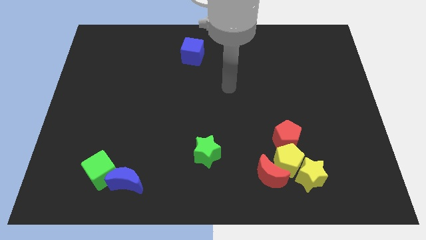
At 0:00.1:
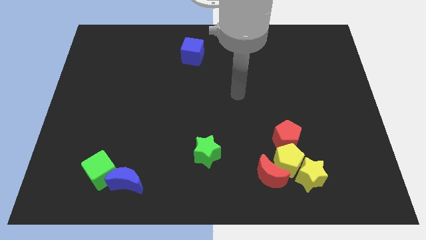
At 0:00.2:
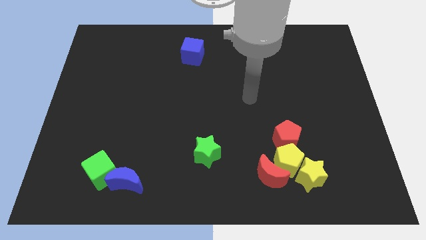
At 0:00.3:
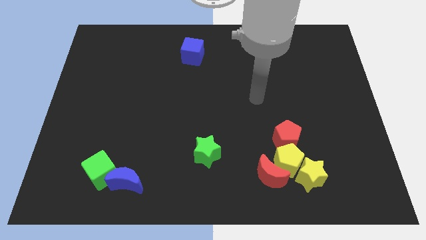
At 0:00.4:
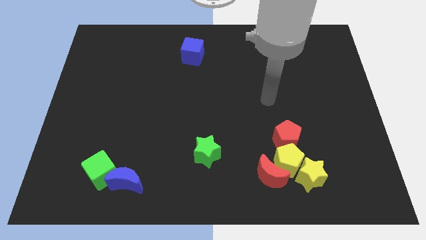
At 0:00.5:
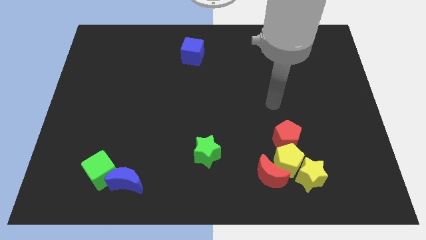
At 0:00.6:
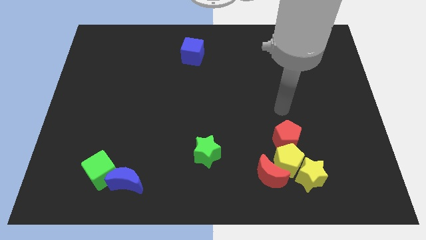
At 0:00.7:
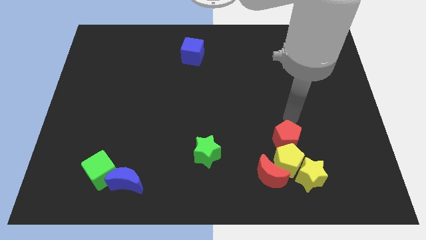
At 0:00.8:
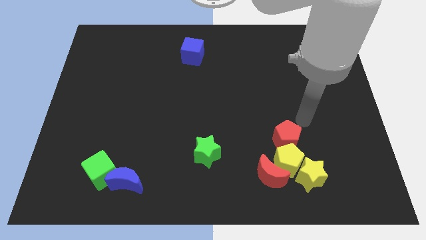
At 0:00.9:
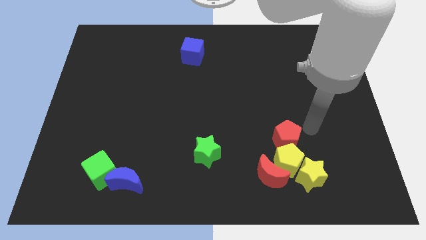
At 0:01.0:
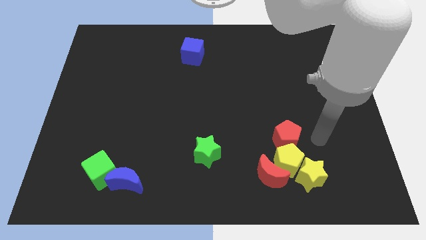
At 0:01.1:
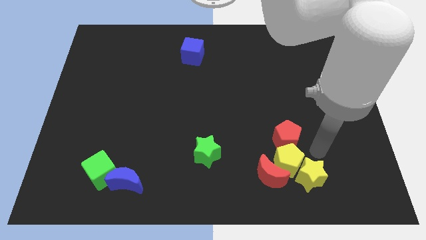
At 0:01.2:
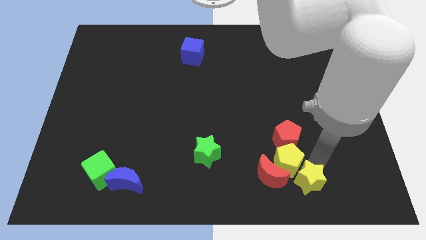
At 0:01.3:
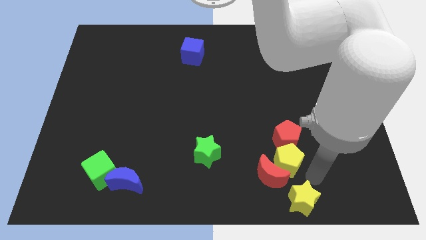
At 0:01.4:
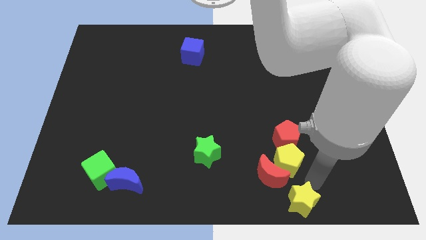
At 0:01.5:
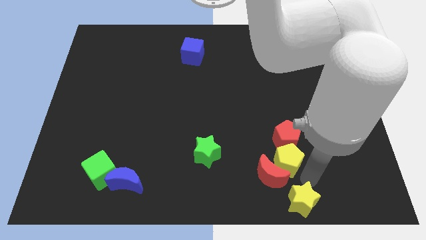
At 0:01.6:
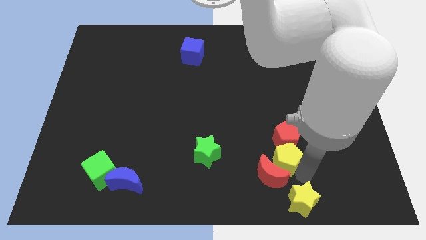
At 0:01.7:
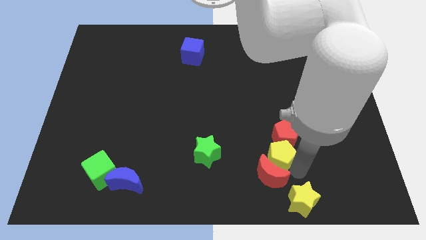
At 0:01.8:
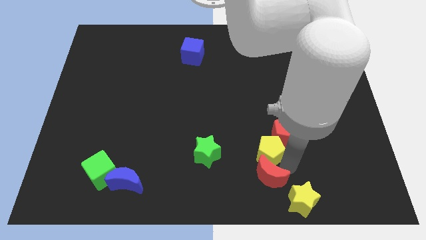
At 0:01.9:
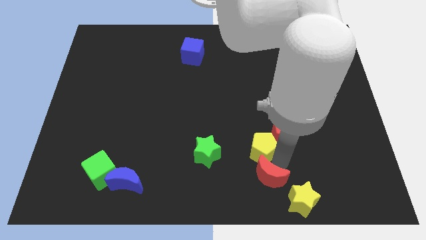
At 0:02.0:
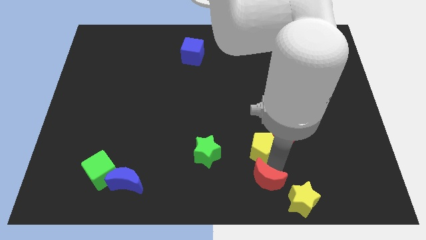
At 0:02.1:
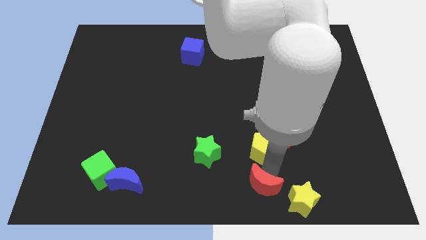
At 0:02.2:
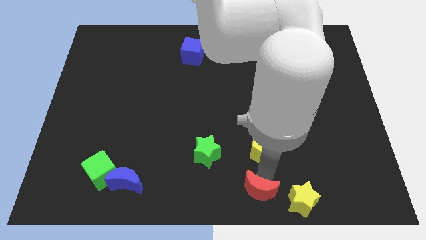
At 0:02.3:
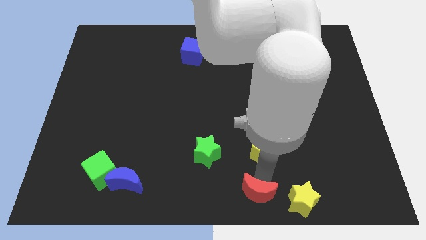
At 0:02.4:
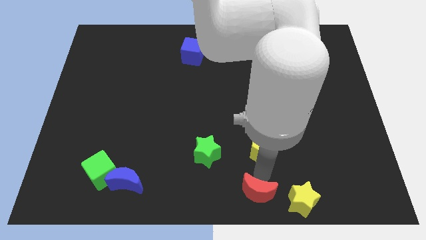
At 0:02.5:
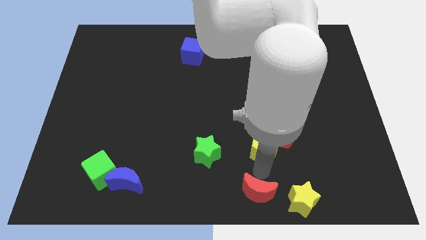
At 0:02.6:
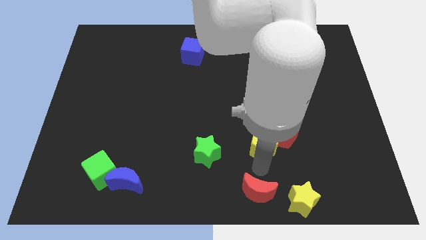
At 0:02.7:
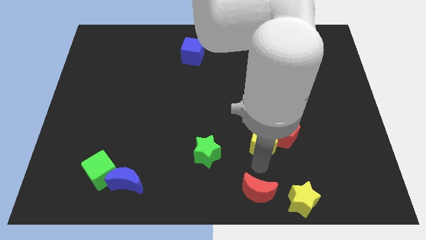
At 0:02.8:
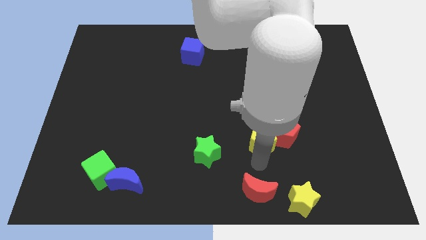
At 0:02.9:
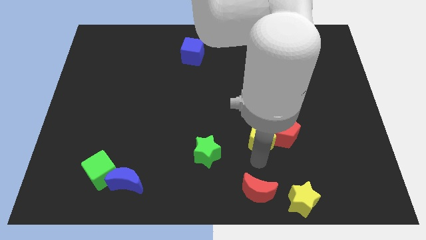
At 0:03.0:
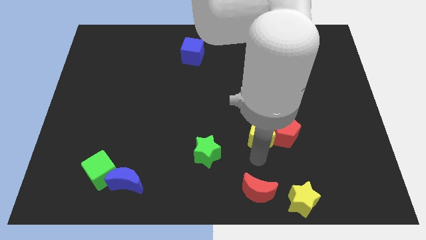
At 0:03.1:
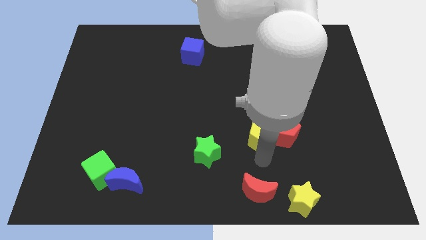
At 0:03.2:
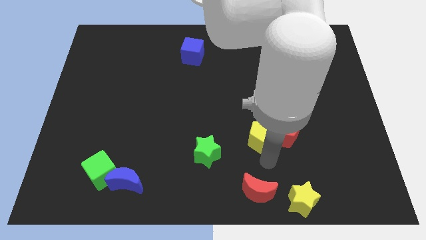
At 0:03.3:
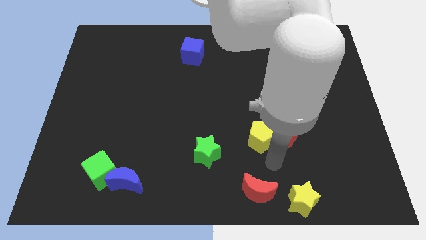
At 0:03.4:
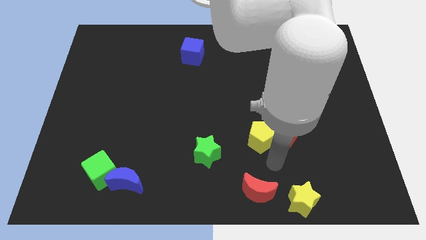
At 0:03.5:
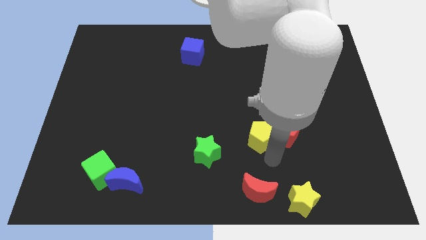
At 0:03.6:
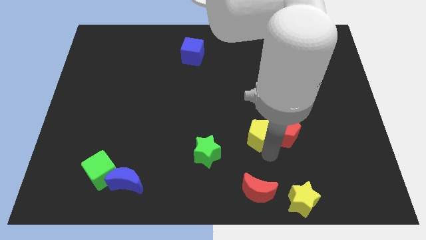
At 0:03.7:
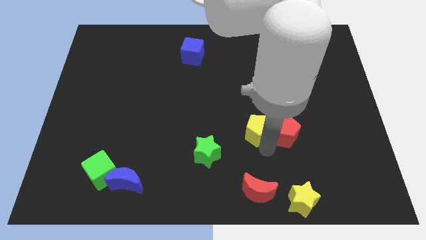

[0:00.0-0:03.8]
pull the yellow pentagon apart from the yellow star, red moon, and red pentagon

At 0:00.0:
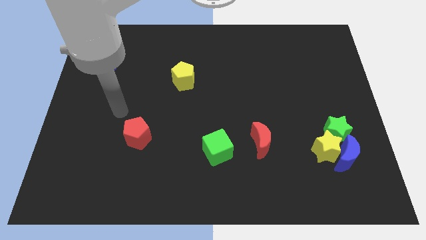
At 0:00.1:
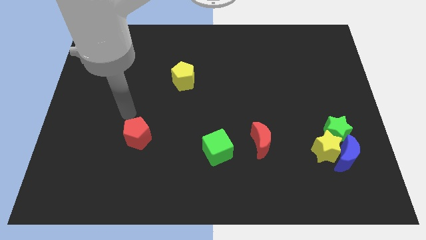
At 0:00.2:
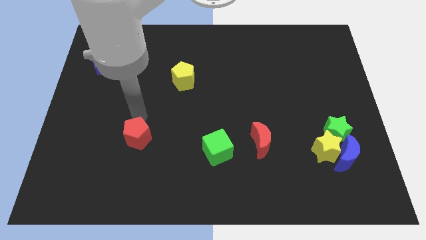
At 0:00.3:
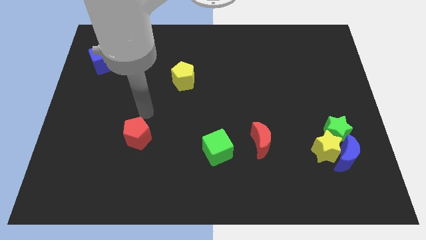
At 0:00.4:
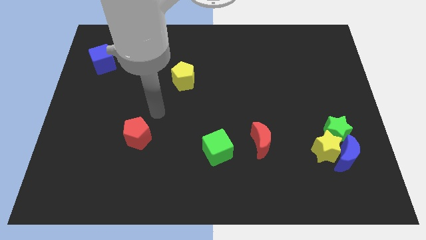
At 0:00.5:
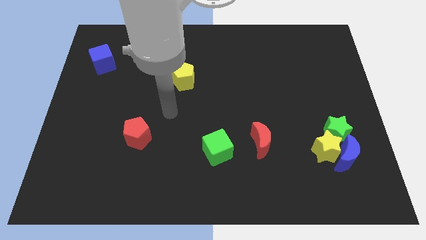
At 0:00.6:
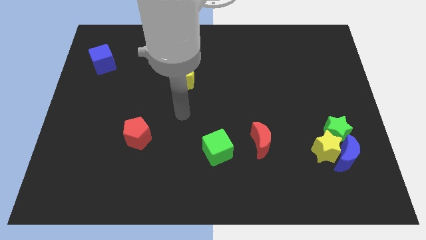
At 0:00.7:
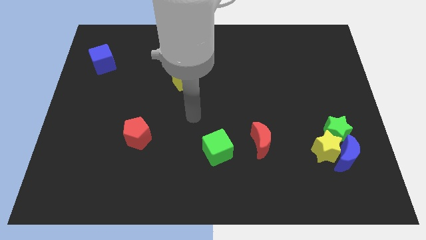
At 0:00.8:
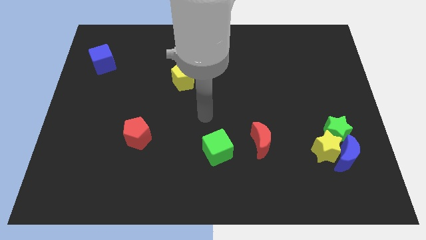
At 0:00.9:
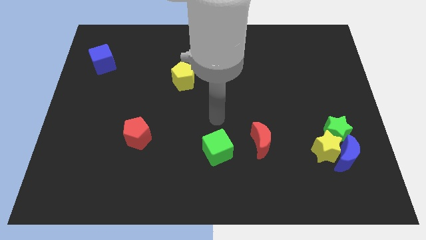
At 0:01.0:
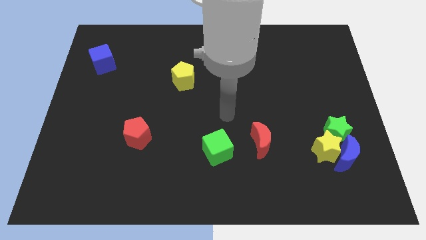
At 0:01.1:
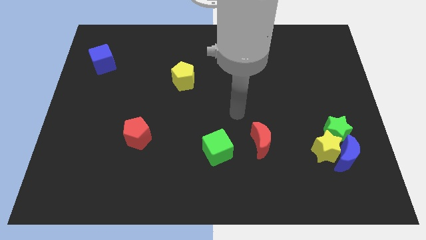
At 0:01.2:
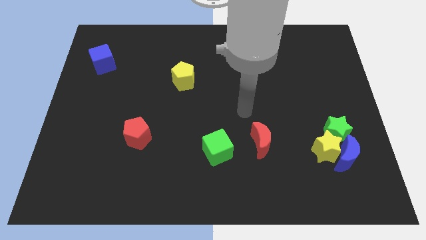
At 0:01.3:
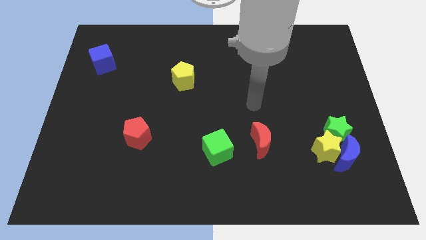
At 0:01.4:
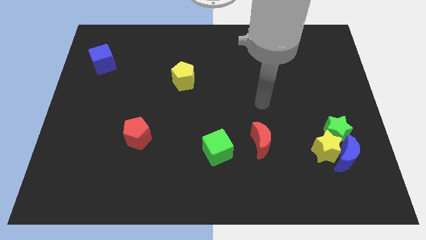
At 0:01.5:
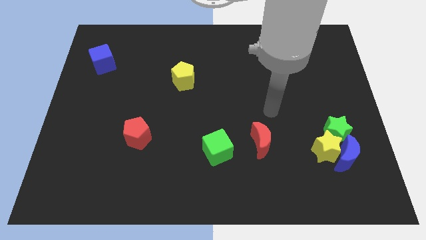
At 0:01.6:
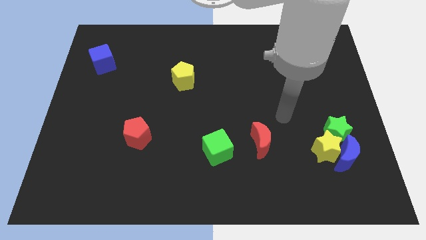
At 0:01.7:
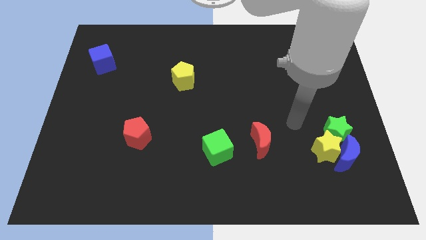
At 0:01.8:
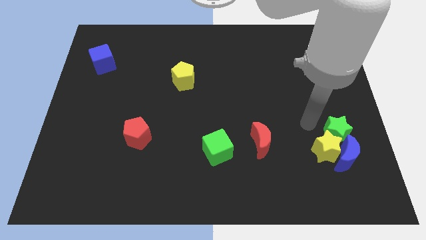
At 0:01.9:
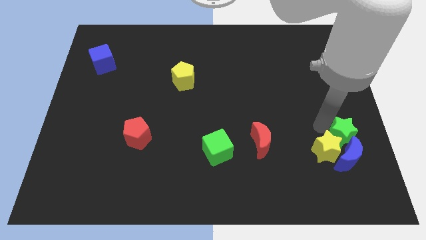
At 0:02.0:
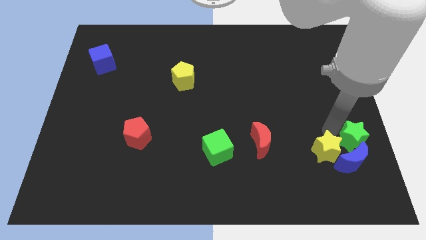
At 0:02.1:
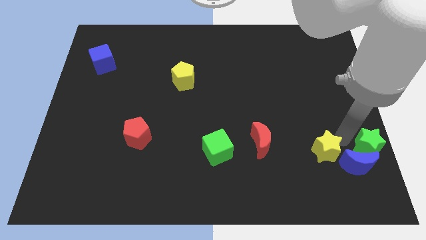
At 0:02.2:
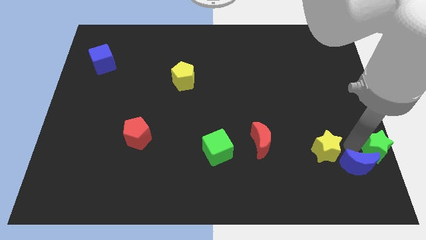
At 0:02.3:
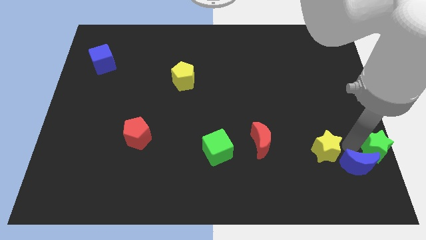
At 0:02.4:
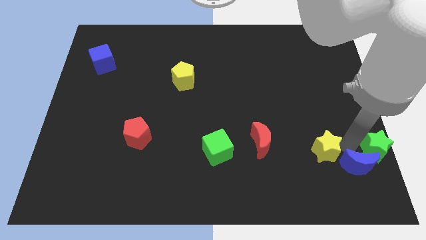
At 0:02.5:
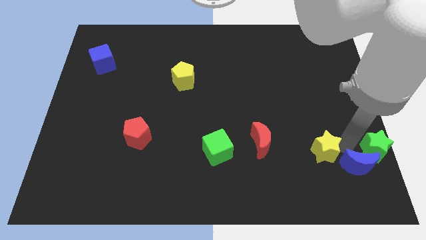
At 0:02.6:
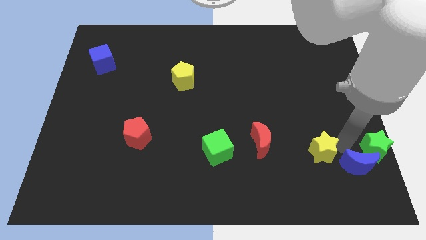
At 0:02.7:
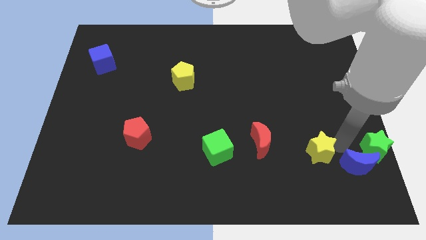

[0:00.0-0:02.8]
move the yellow star away from the blue moon and green star

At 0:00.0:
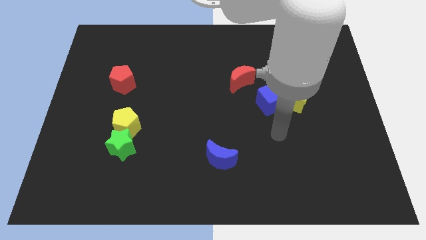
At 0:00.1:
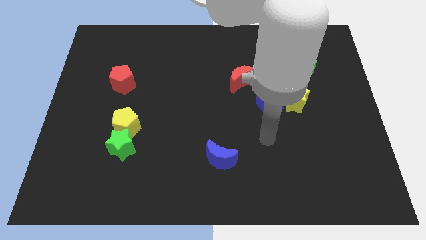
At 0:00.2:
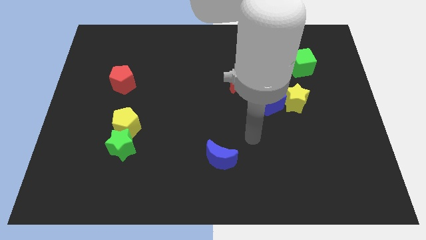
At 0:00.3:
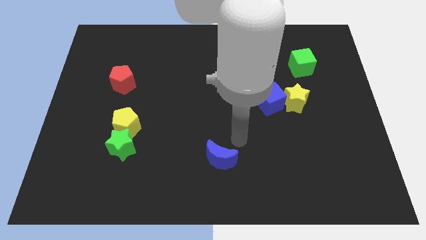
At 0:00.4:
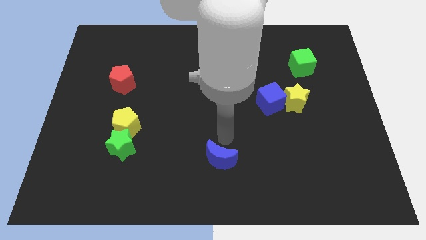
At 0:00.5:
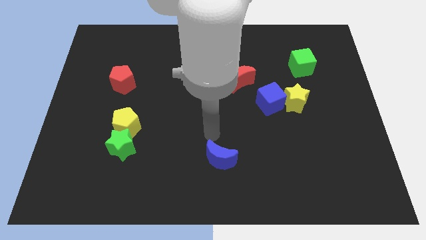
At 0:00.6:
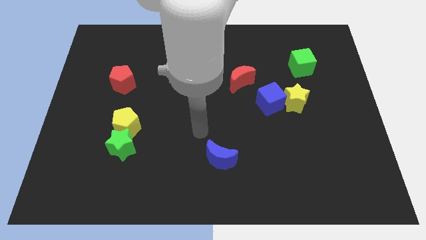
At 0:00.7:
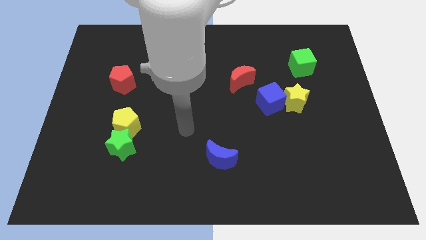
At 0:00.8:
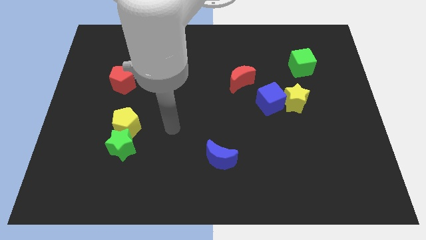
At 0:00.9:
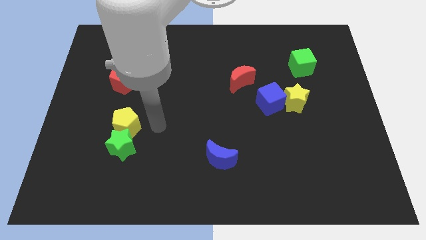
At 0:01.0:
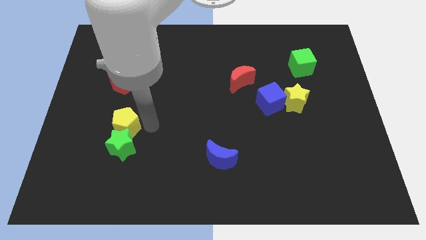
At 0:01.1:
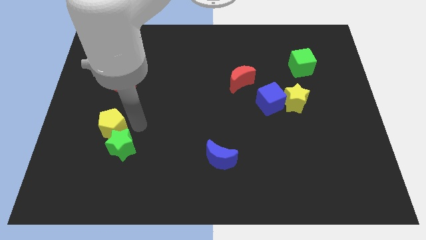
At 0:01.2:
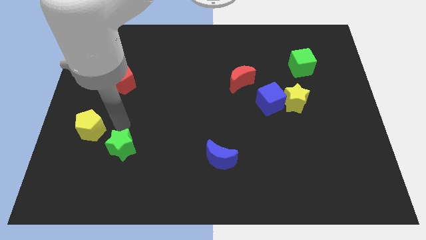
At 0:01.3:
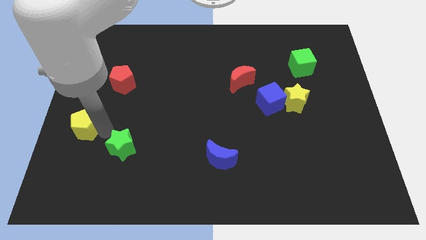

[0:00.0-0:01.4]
pull the green star apart from the yellow pentagon

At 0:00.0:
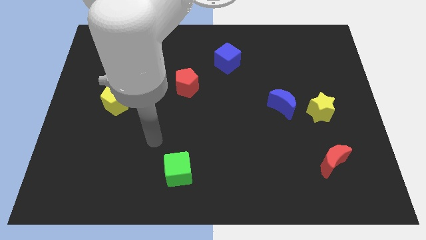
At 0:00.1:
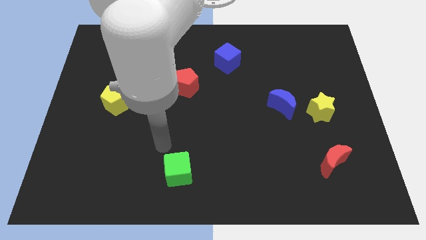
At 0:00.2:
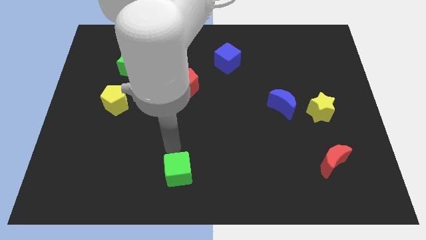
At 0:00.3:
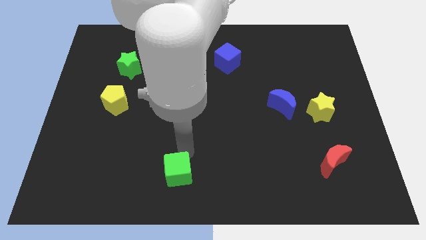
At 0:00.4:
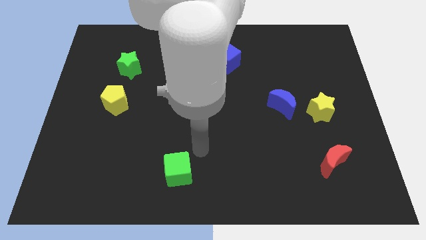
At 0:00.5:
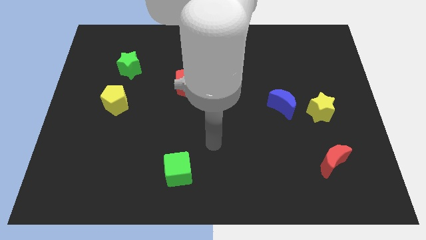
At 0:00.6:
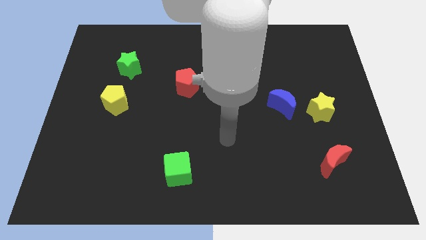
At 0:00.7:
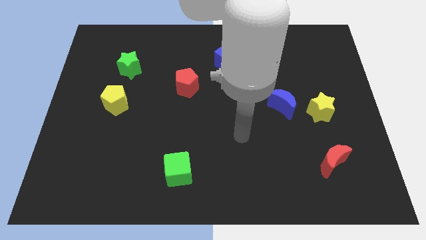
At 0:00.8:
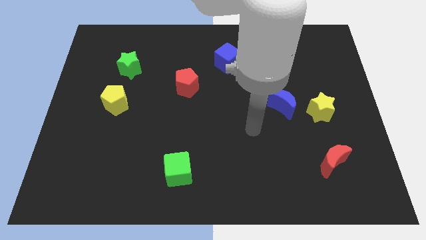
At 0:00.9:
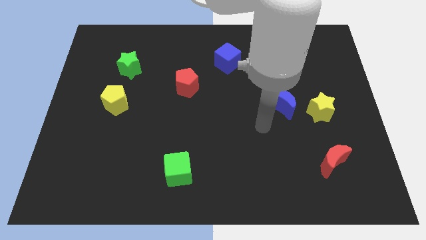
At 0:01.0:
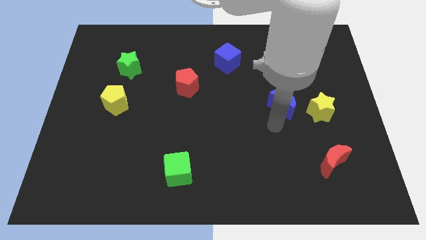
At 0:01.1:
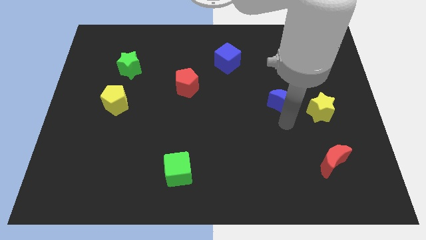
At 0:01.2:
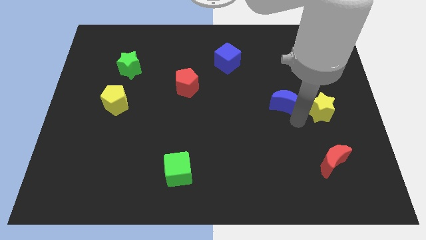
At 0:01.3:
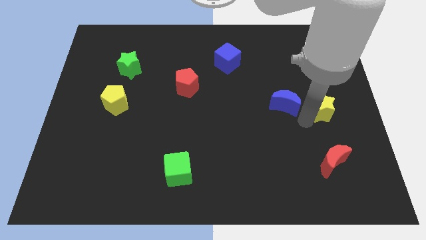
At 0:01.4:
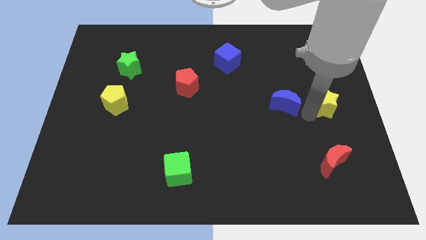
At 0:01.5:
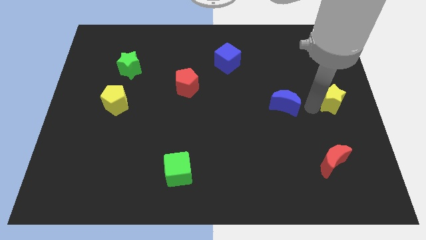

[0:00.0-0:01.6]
separate the blue moon from the yellow star
